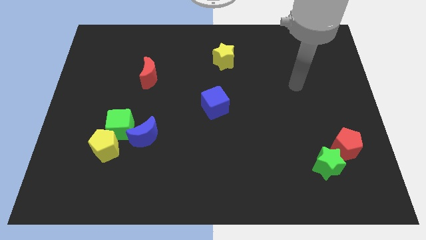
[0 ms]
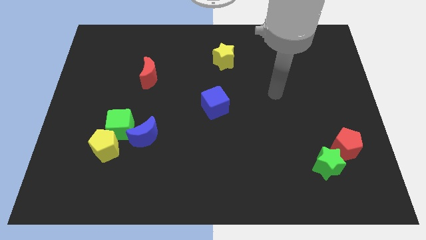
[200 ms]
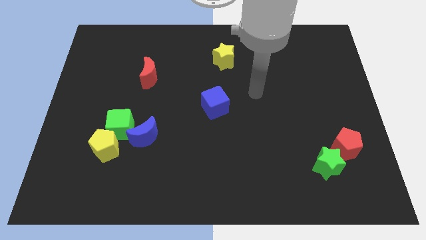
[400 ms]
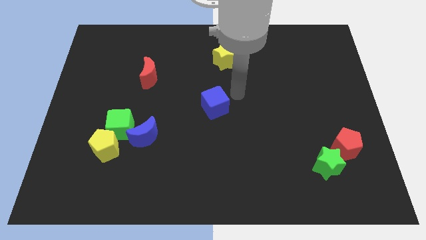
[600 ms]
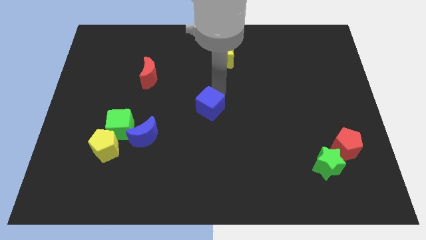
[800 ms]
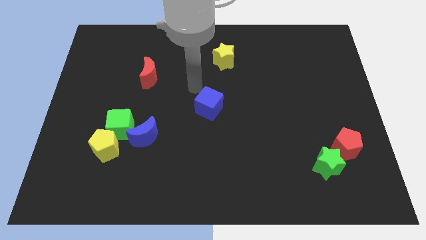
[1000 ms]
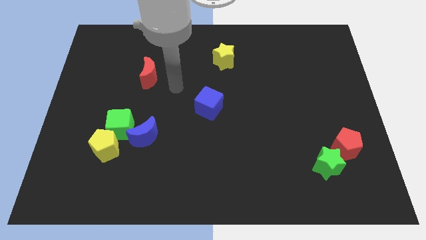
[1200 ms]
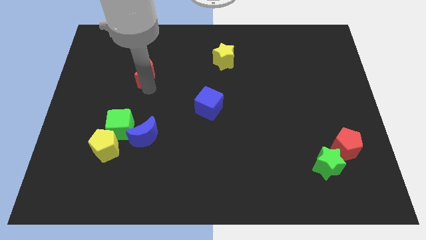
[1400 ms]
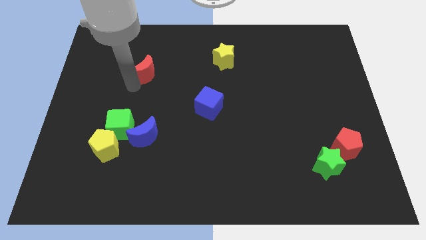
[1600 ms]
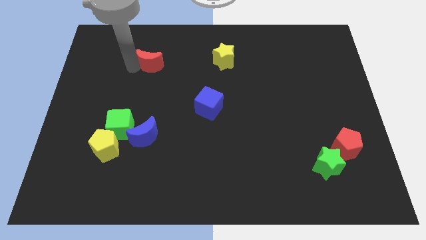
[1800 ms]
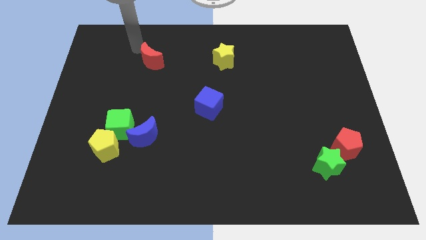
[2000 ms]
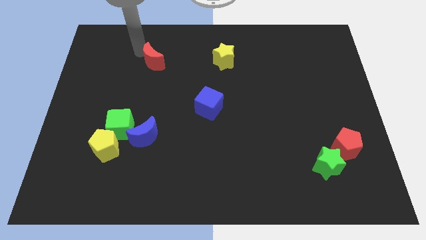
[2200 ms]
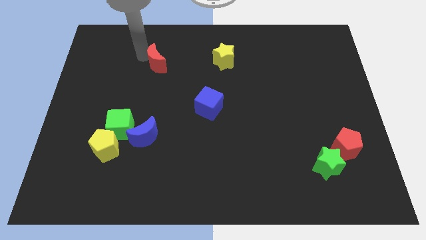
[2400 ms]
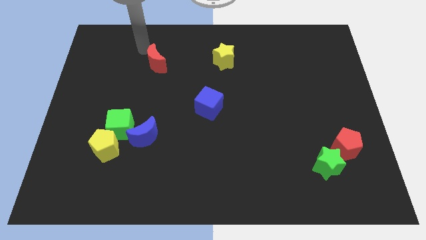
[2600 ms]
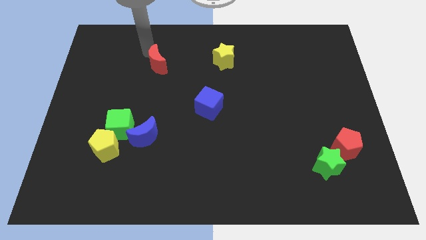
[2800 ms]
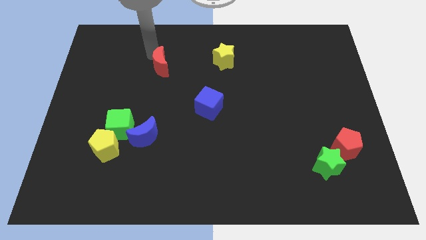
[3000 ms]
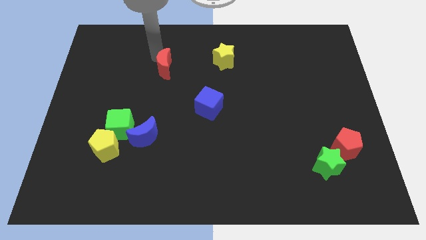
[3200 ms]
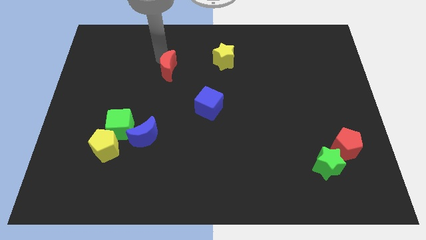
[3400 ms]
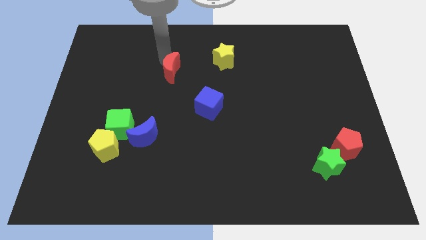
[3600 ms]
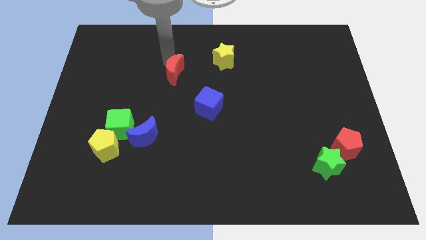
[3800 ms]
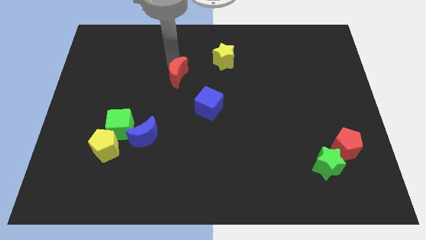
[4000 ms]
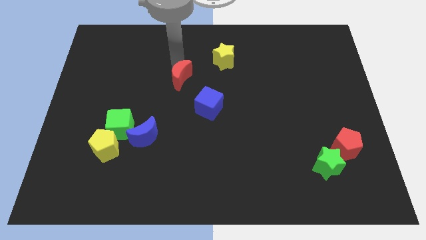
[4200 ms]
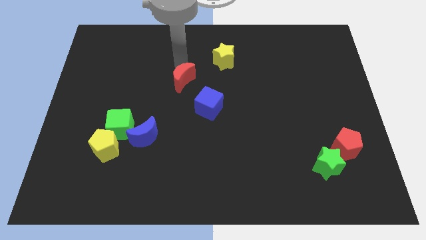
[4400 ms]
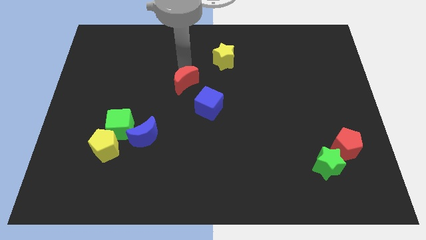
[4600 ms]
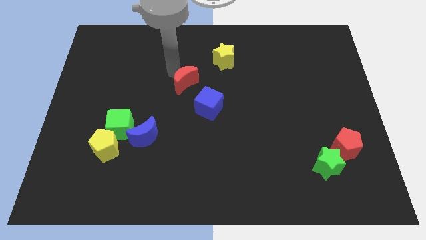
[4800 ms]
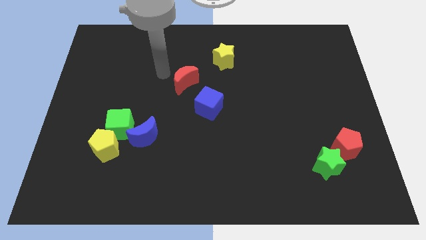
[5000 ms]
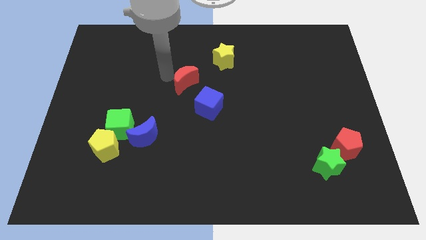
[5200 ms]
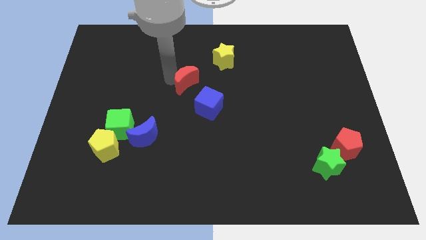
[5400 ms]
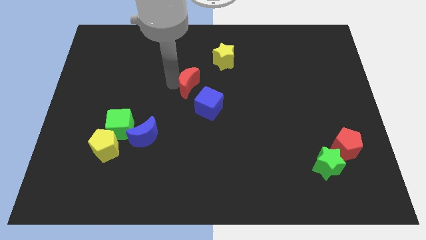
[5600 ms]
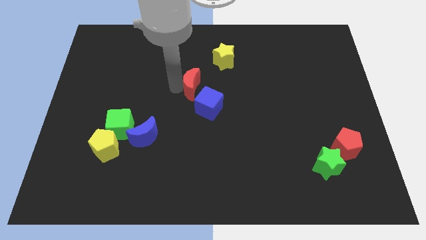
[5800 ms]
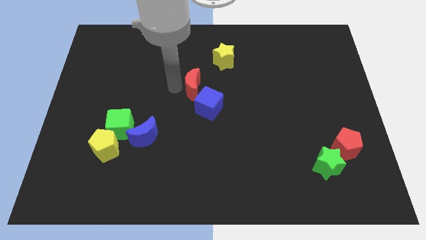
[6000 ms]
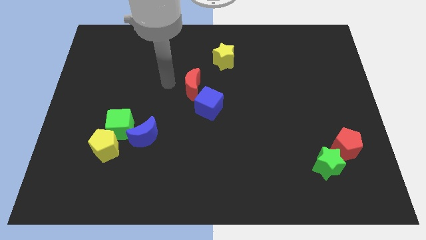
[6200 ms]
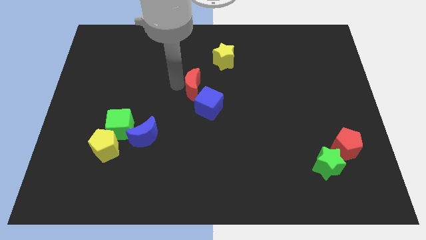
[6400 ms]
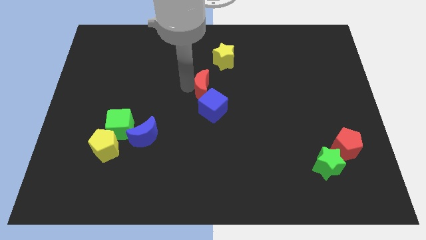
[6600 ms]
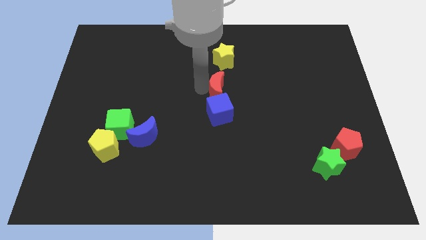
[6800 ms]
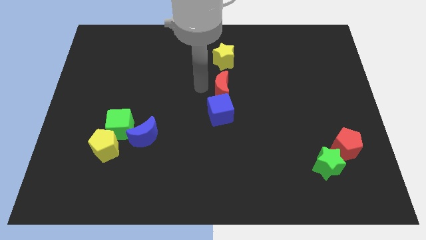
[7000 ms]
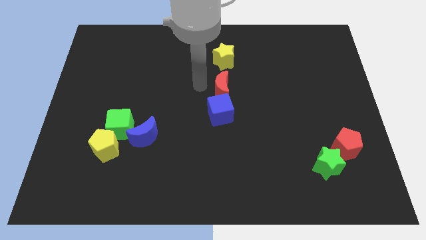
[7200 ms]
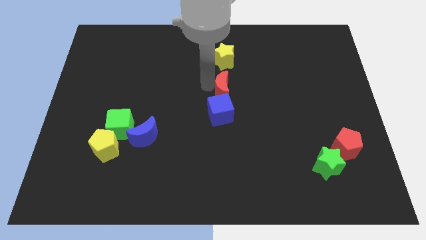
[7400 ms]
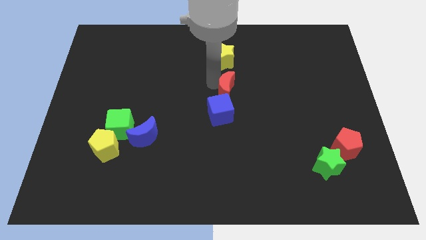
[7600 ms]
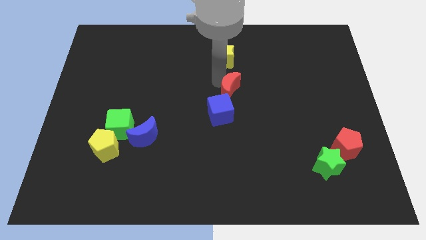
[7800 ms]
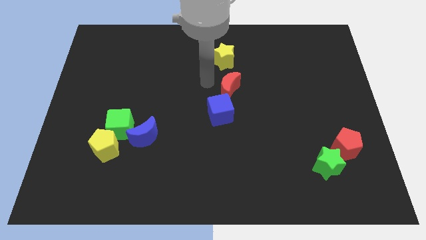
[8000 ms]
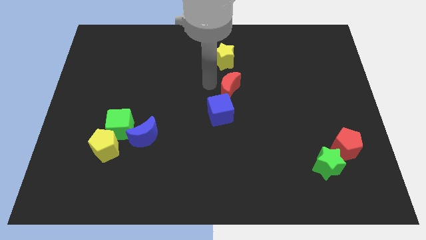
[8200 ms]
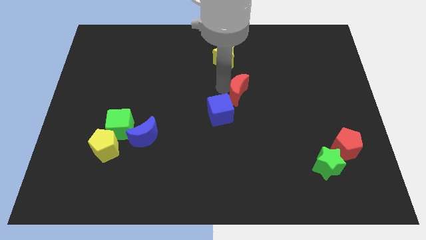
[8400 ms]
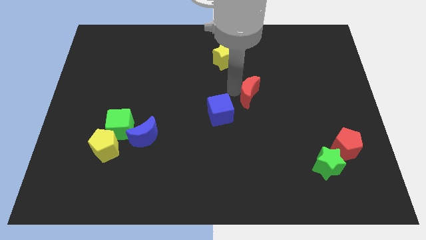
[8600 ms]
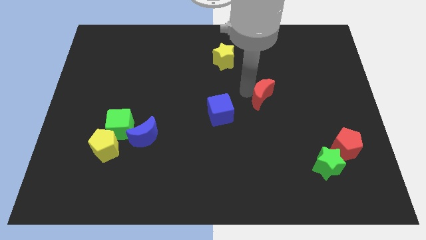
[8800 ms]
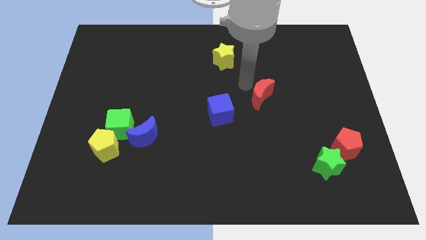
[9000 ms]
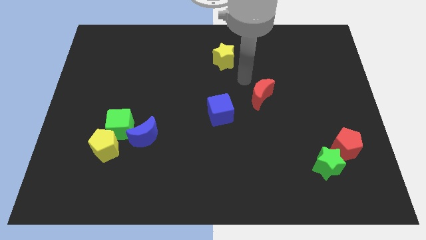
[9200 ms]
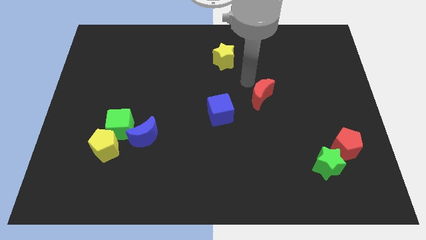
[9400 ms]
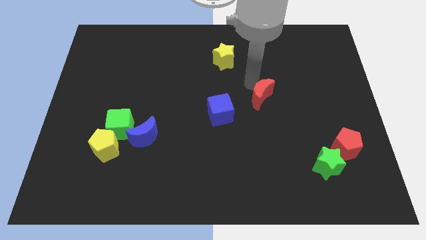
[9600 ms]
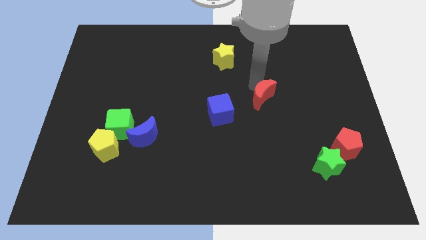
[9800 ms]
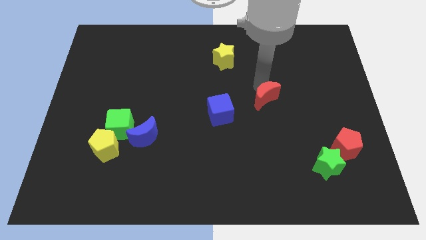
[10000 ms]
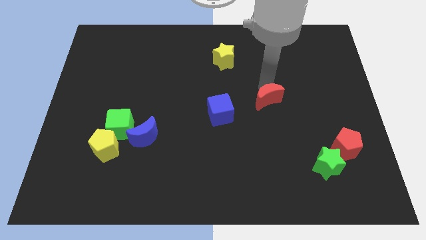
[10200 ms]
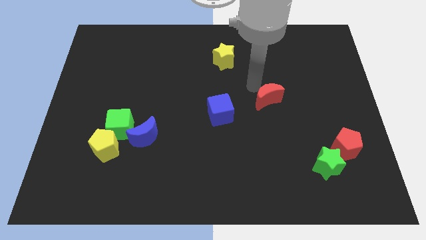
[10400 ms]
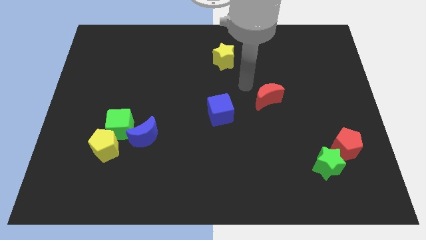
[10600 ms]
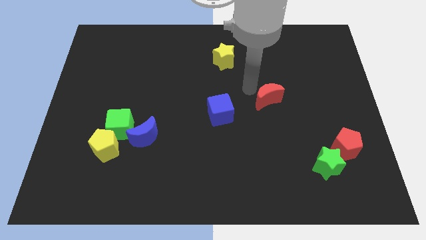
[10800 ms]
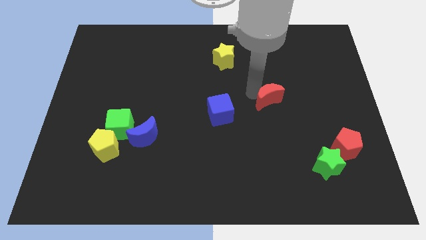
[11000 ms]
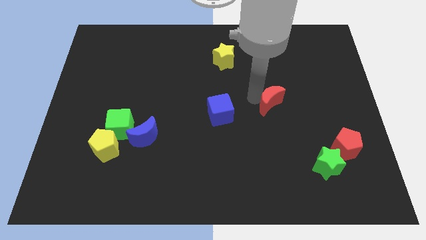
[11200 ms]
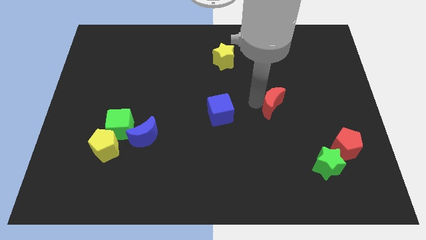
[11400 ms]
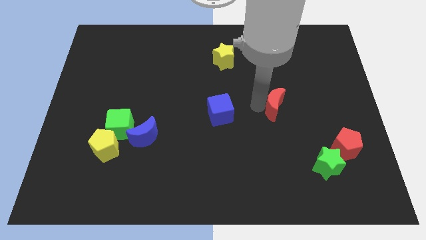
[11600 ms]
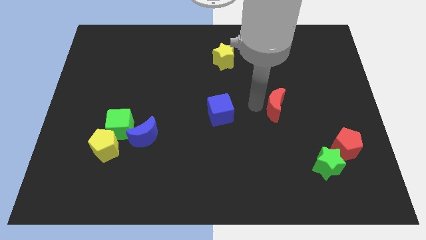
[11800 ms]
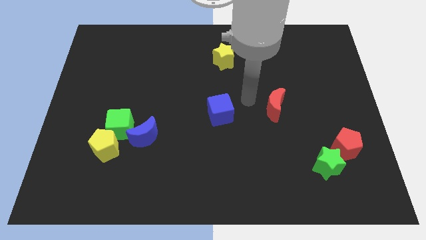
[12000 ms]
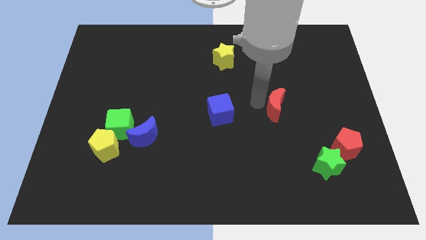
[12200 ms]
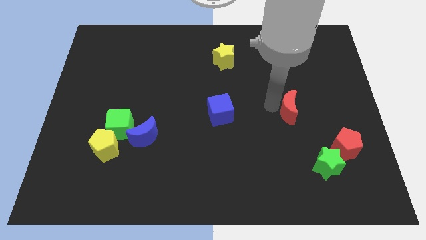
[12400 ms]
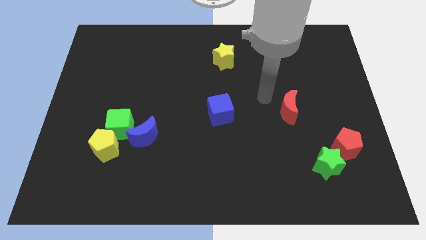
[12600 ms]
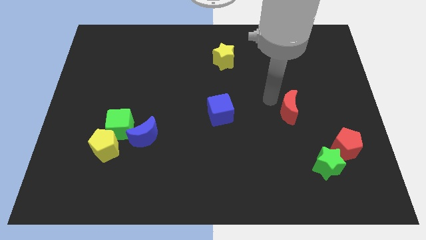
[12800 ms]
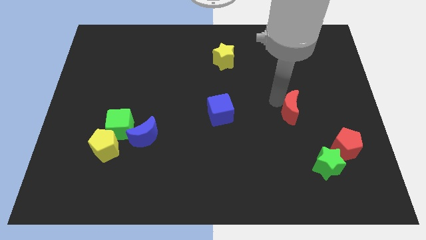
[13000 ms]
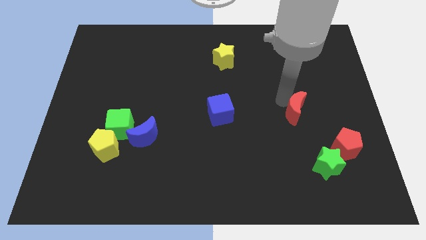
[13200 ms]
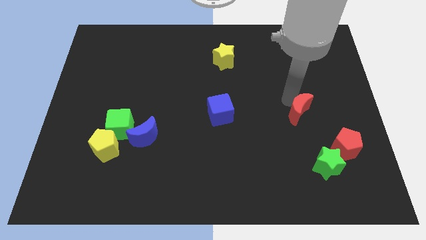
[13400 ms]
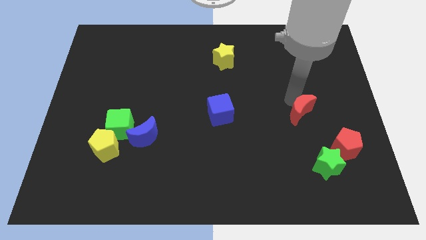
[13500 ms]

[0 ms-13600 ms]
push the red moon to the top of the green star

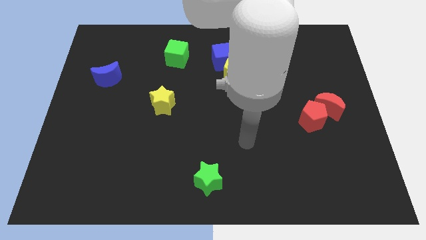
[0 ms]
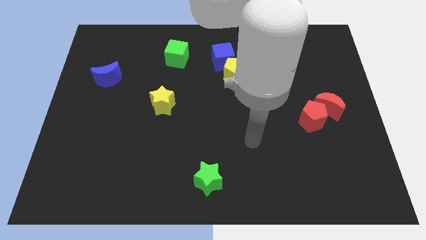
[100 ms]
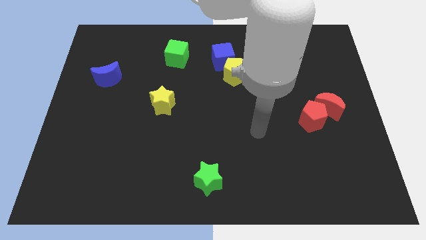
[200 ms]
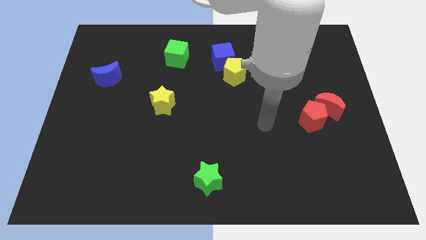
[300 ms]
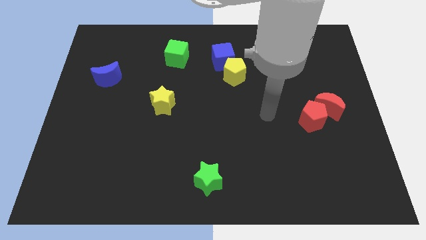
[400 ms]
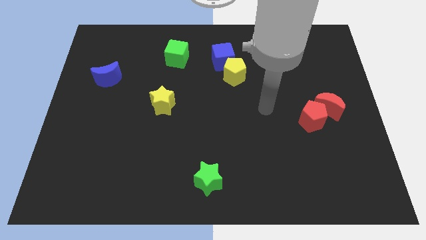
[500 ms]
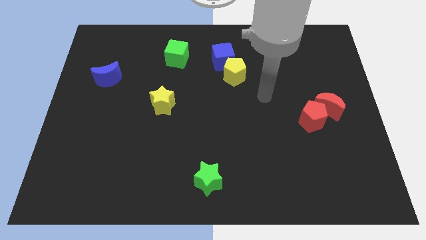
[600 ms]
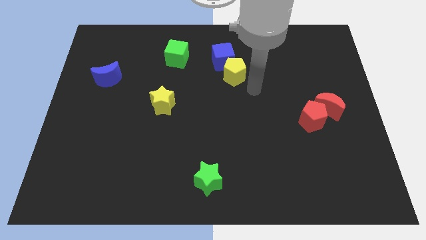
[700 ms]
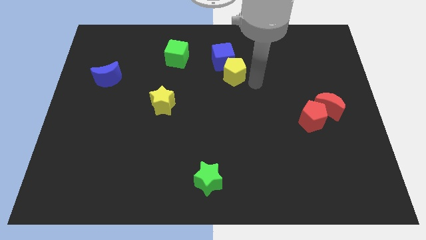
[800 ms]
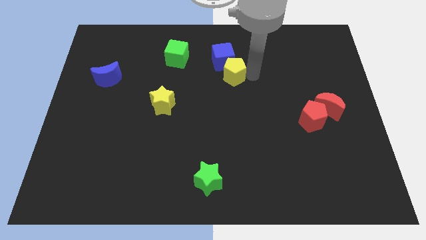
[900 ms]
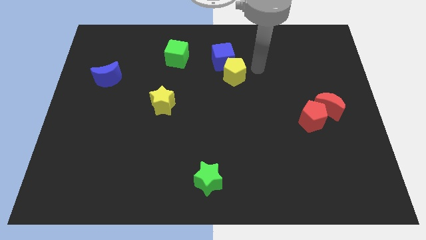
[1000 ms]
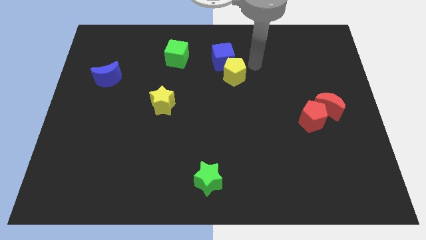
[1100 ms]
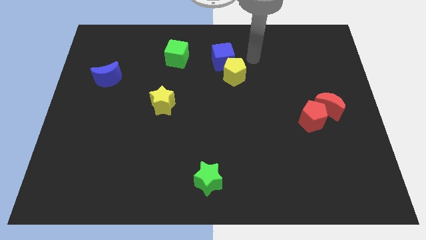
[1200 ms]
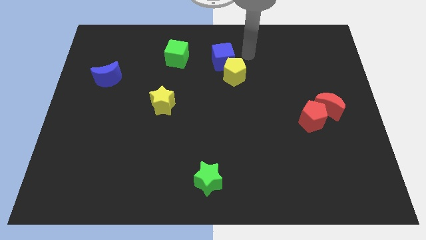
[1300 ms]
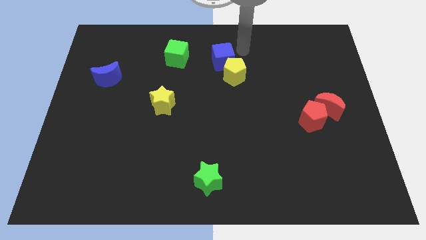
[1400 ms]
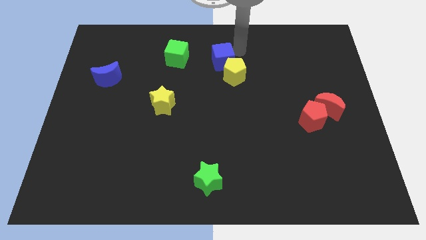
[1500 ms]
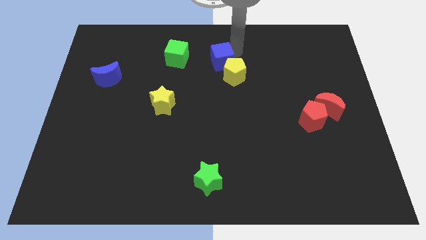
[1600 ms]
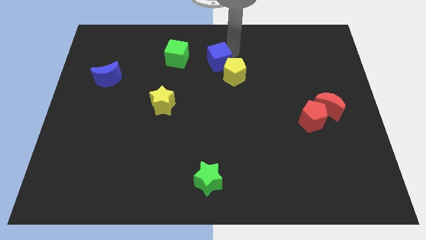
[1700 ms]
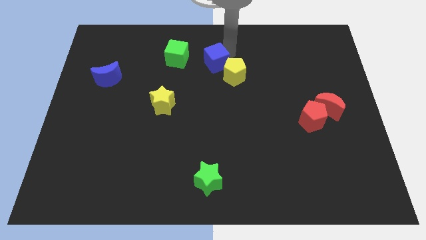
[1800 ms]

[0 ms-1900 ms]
push the blue cube just left of the yellow pentagon
